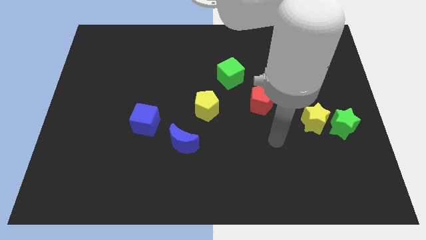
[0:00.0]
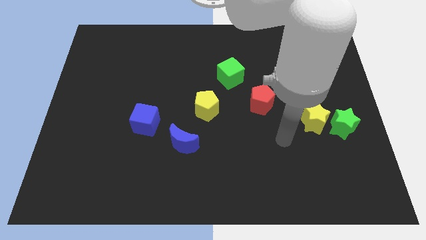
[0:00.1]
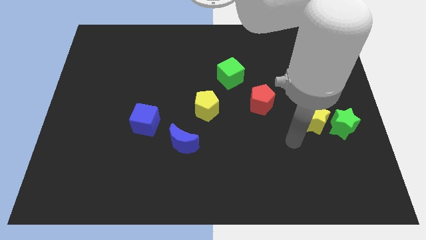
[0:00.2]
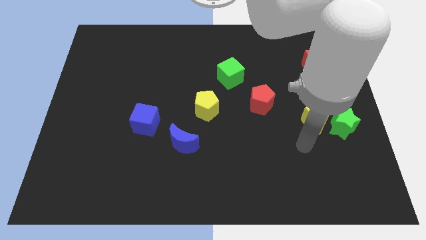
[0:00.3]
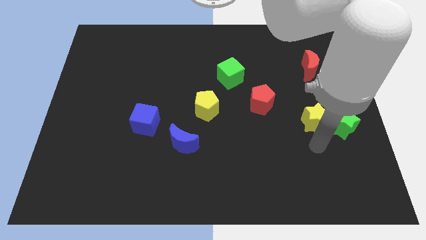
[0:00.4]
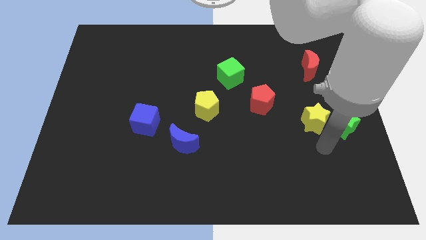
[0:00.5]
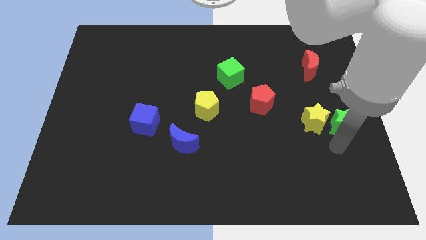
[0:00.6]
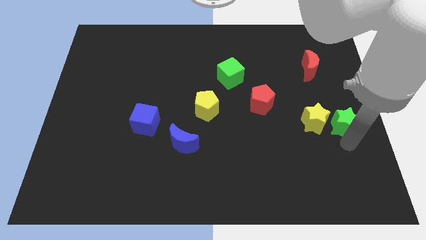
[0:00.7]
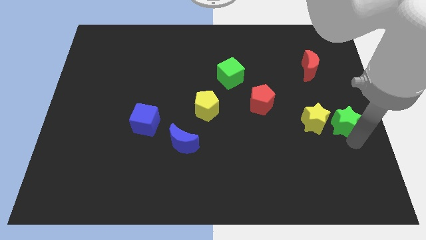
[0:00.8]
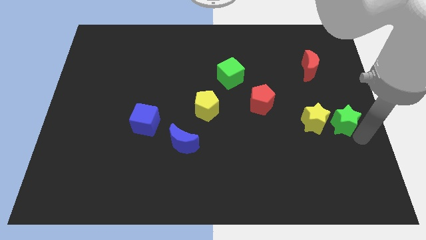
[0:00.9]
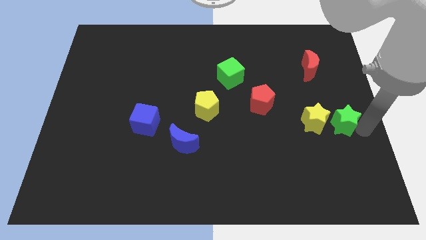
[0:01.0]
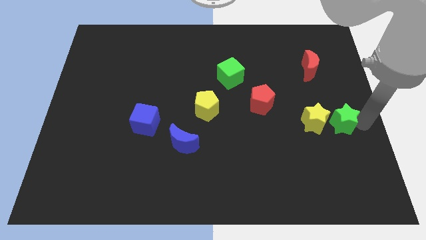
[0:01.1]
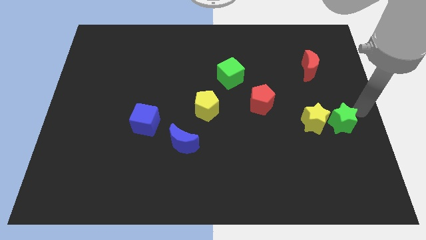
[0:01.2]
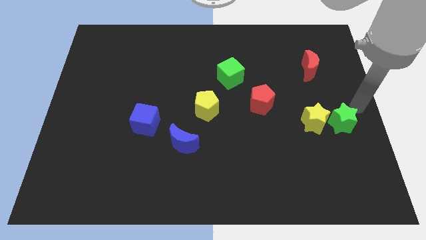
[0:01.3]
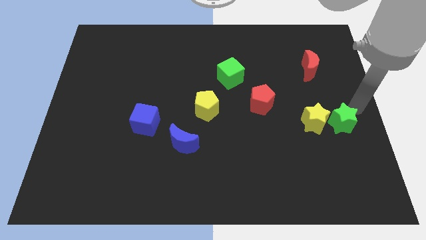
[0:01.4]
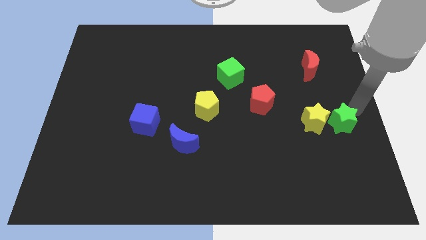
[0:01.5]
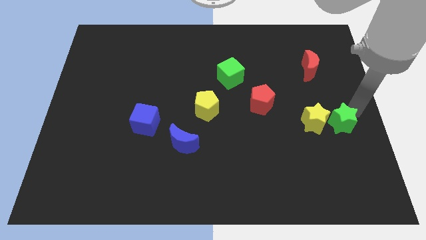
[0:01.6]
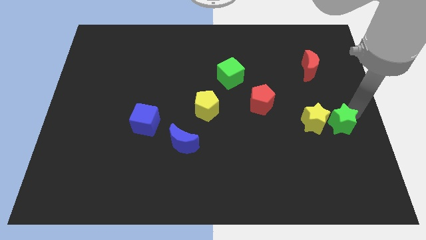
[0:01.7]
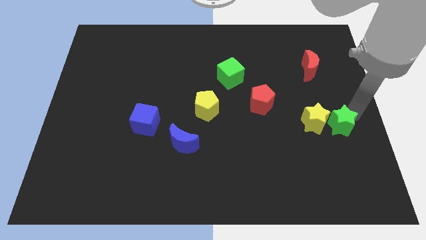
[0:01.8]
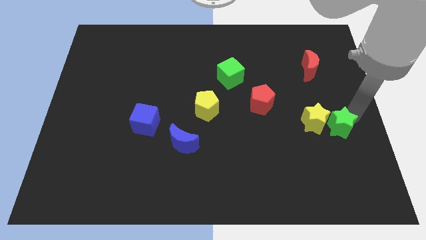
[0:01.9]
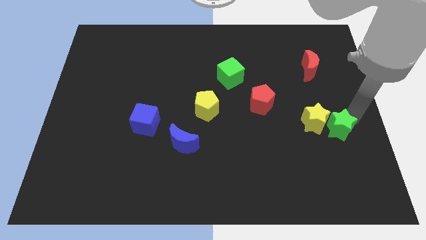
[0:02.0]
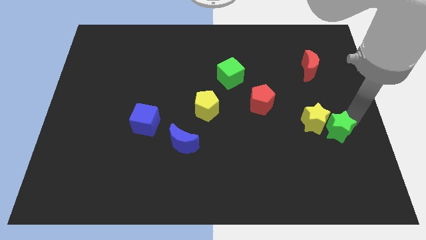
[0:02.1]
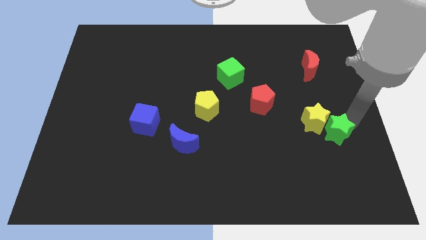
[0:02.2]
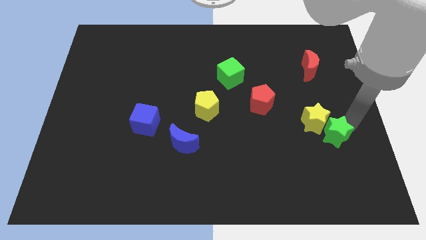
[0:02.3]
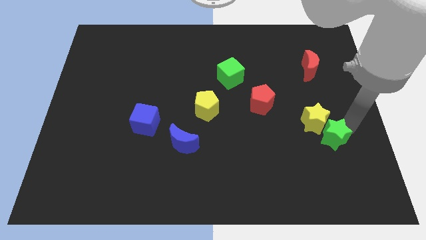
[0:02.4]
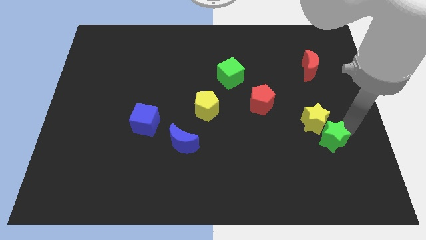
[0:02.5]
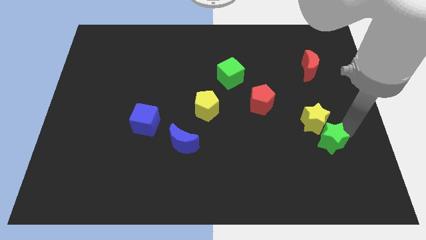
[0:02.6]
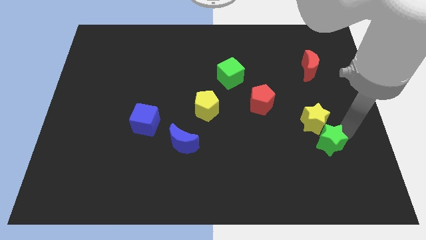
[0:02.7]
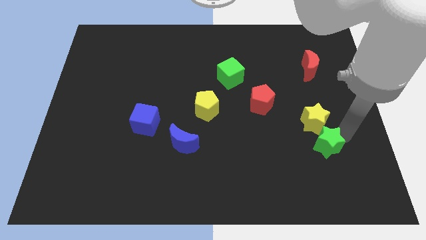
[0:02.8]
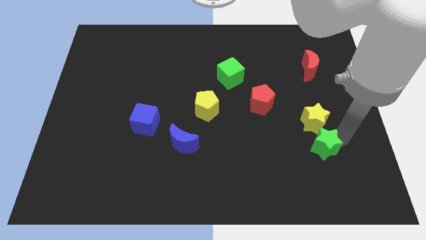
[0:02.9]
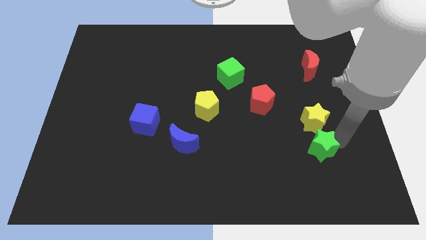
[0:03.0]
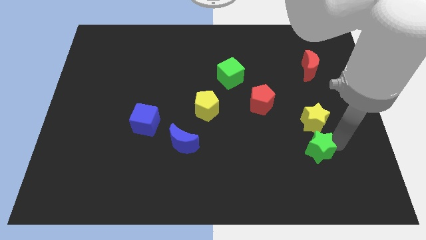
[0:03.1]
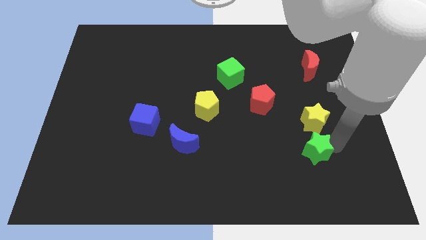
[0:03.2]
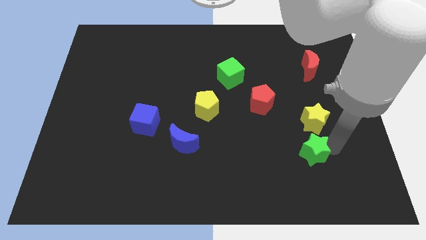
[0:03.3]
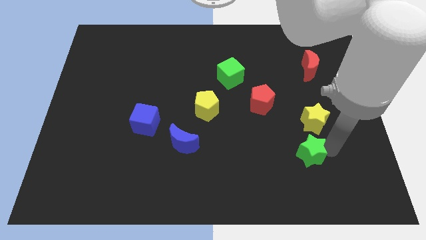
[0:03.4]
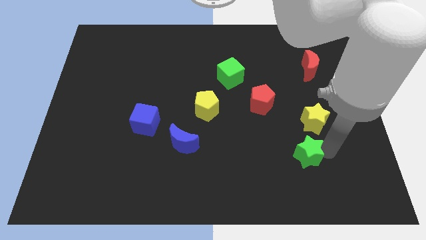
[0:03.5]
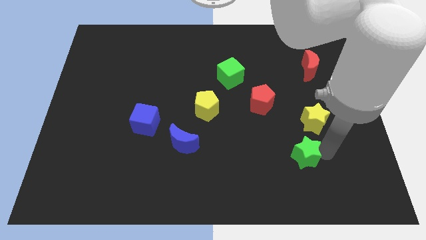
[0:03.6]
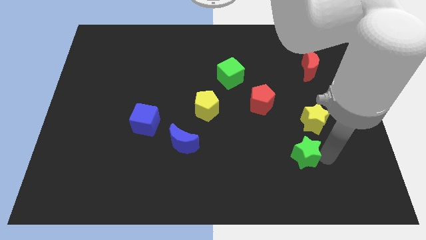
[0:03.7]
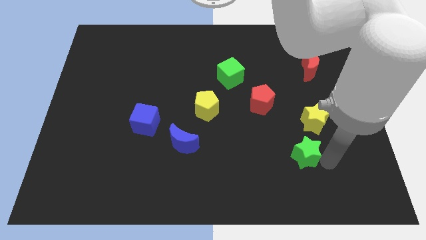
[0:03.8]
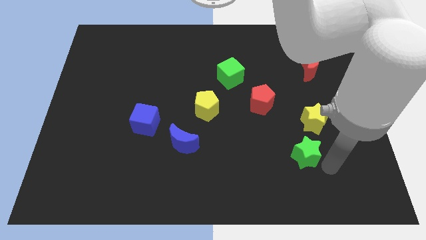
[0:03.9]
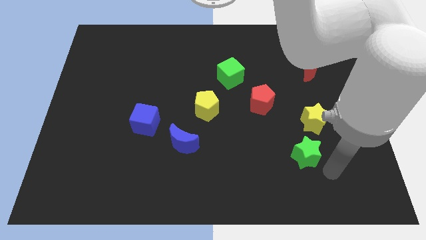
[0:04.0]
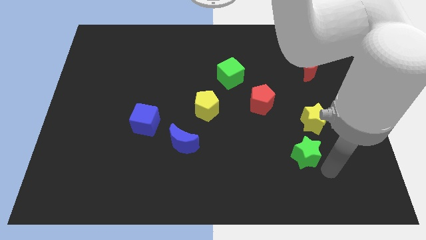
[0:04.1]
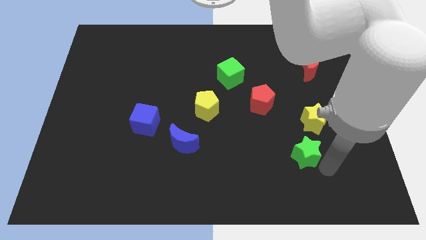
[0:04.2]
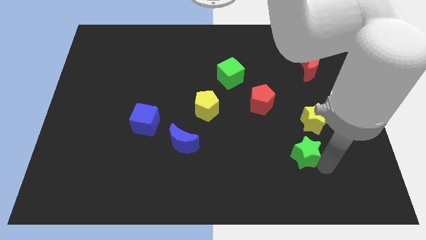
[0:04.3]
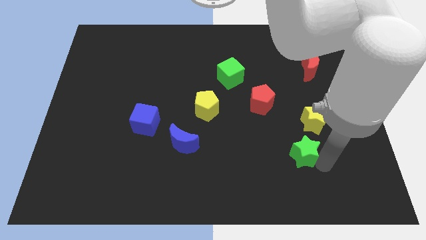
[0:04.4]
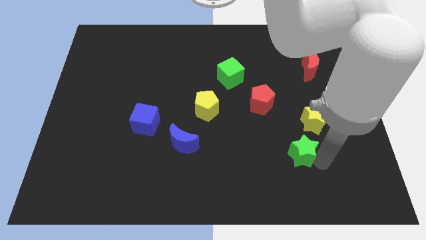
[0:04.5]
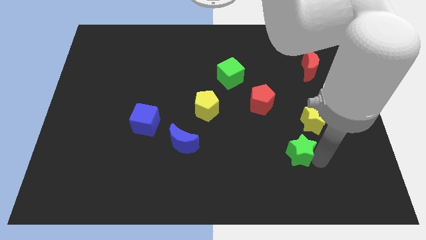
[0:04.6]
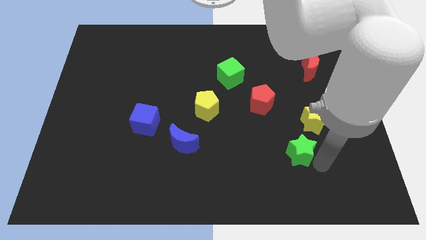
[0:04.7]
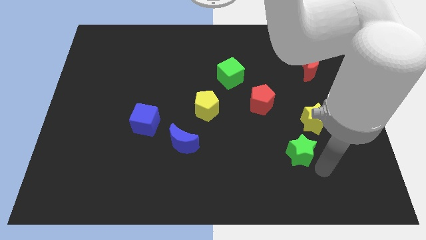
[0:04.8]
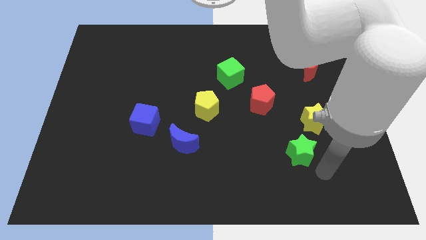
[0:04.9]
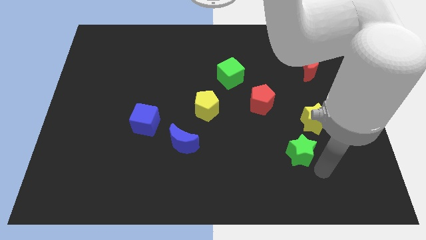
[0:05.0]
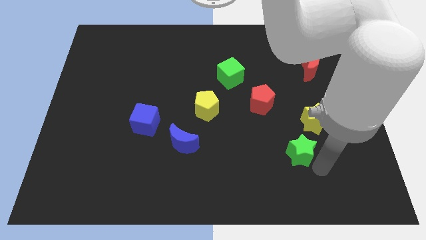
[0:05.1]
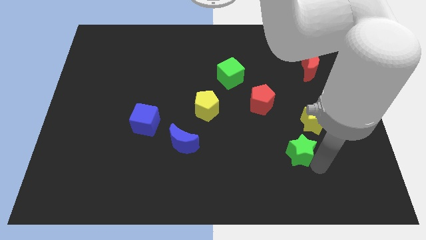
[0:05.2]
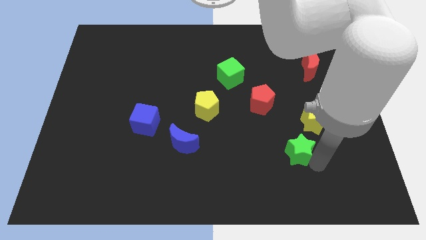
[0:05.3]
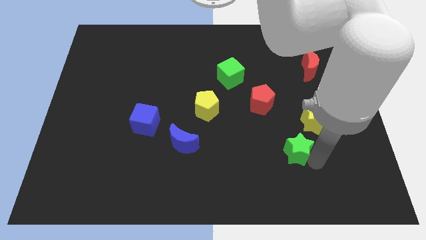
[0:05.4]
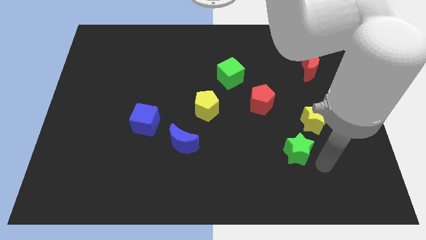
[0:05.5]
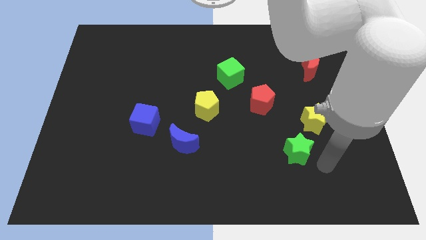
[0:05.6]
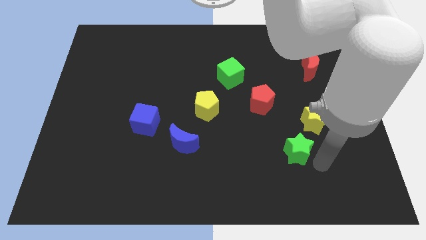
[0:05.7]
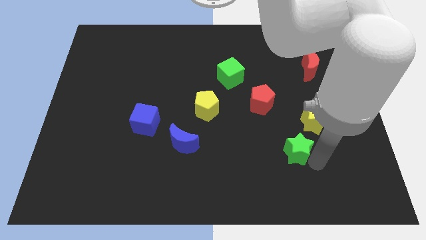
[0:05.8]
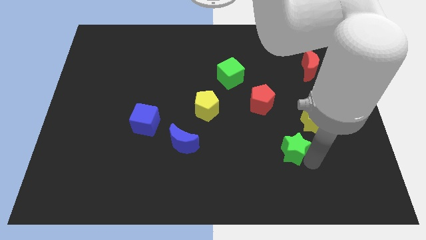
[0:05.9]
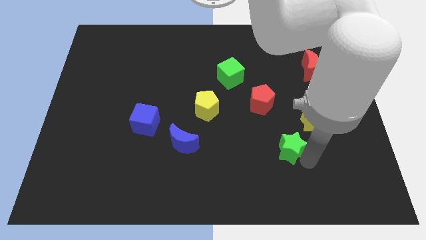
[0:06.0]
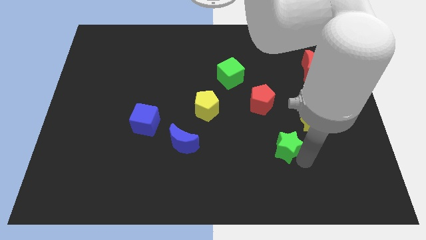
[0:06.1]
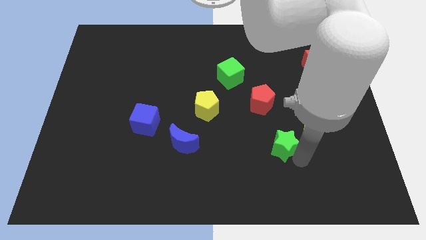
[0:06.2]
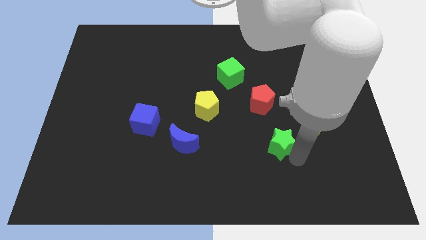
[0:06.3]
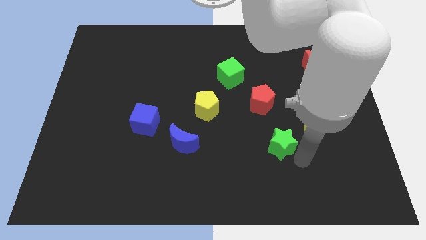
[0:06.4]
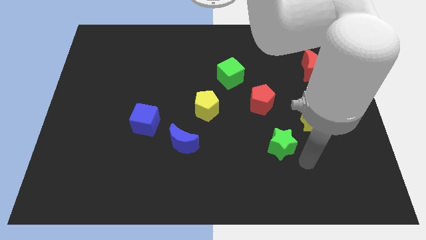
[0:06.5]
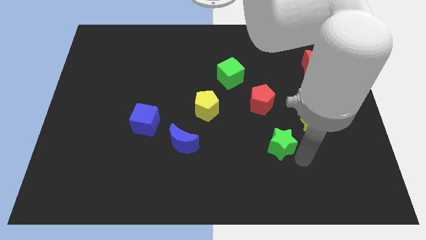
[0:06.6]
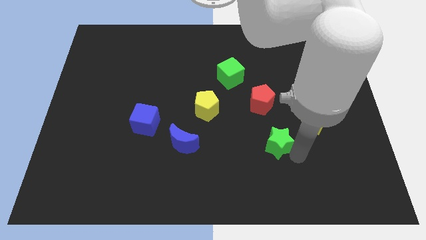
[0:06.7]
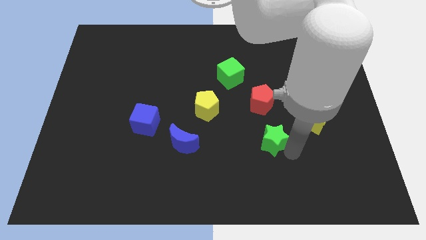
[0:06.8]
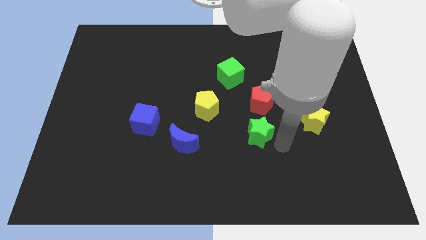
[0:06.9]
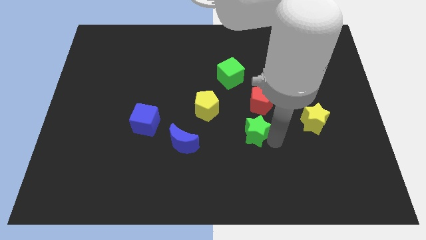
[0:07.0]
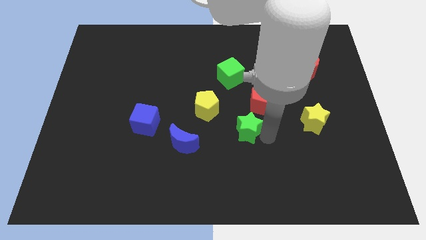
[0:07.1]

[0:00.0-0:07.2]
push the green star diagonally down and to the right of the yellow pentagon

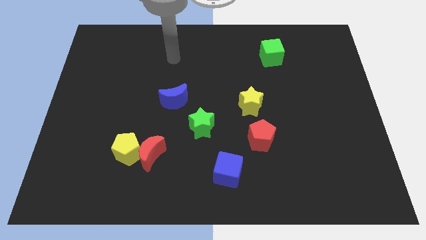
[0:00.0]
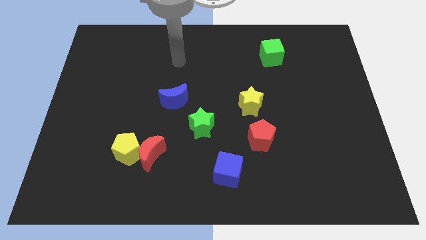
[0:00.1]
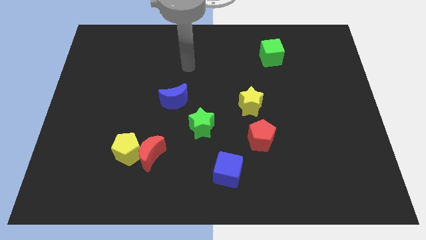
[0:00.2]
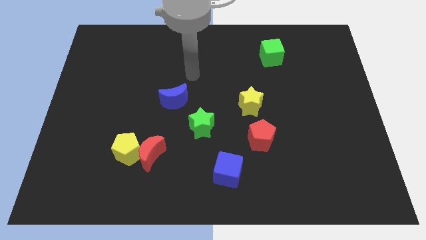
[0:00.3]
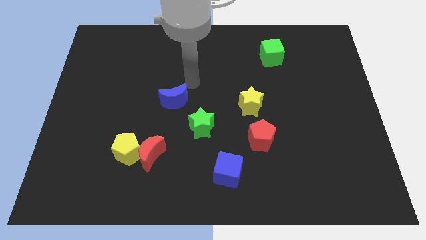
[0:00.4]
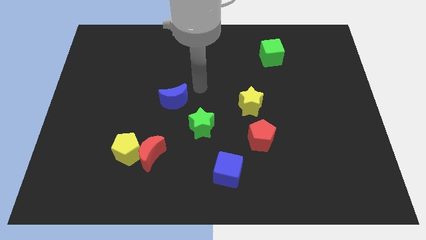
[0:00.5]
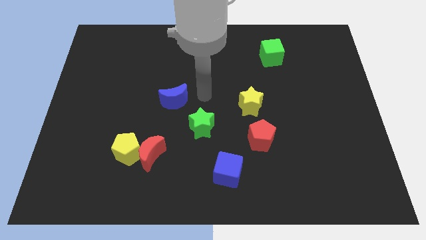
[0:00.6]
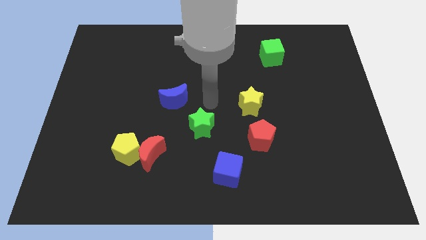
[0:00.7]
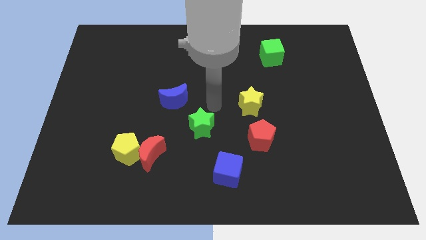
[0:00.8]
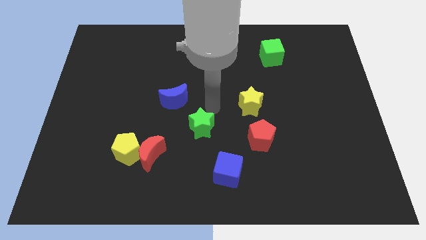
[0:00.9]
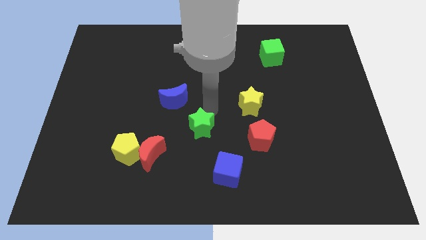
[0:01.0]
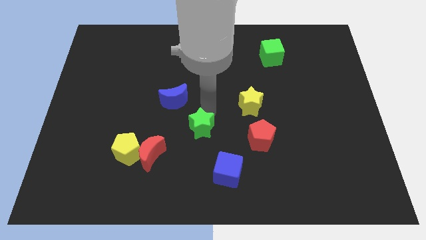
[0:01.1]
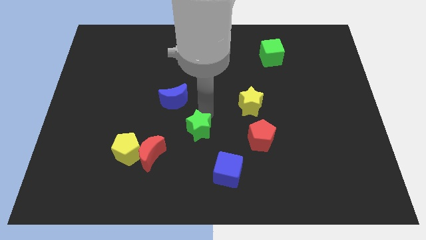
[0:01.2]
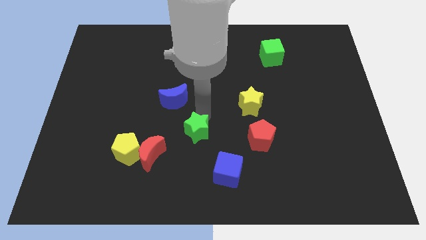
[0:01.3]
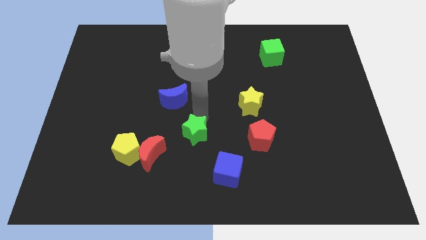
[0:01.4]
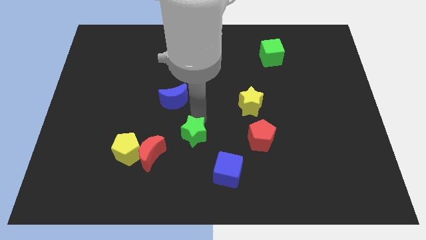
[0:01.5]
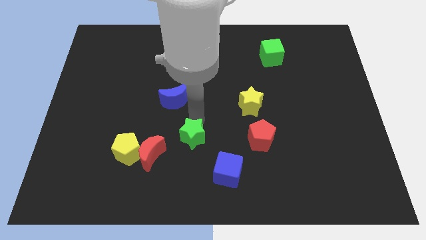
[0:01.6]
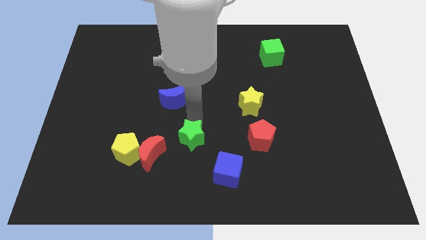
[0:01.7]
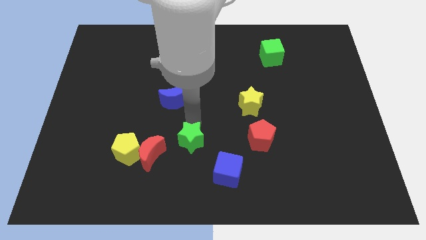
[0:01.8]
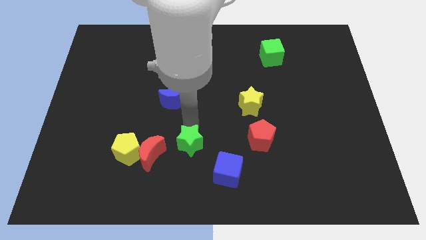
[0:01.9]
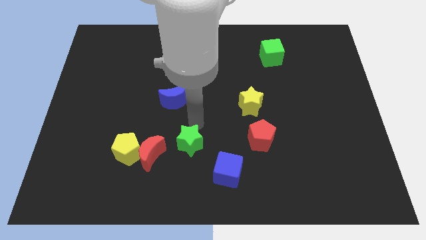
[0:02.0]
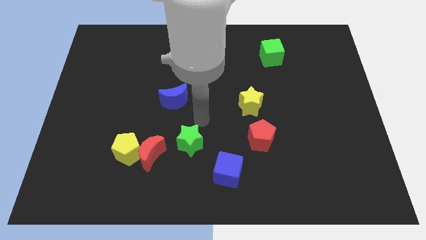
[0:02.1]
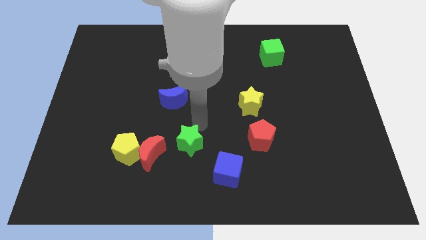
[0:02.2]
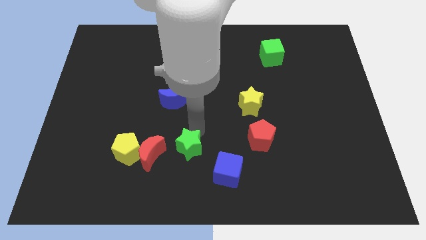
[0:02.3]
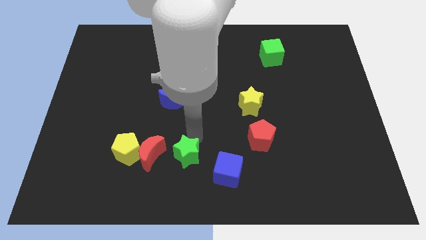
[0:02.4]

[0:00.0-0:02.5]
move the green star just left of the blue cube
